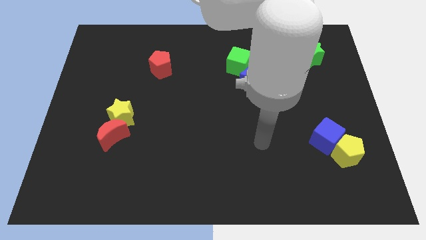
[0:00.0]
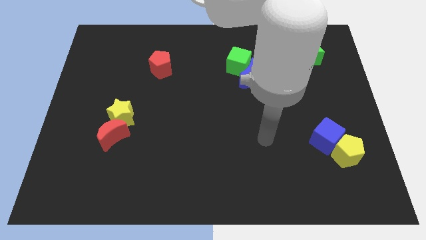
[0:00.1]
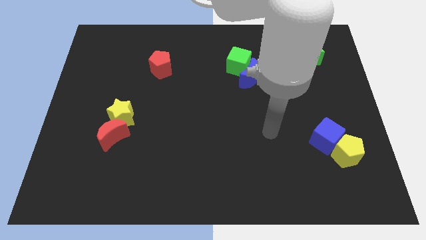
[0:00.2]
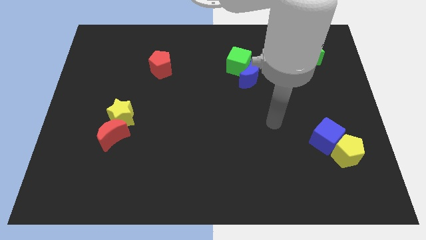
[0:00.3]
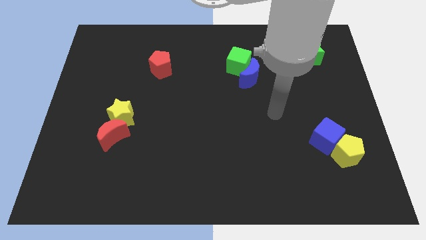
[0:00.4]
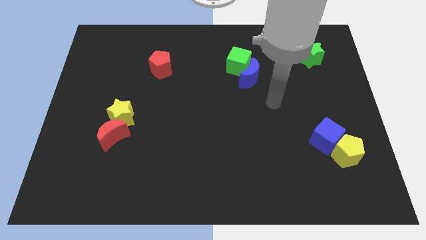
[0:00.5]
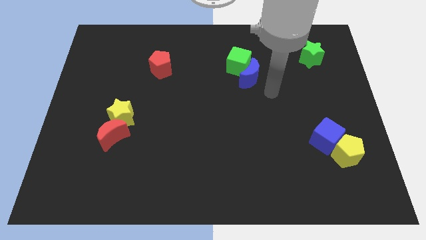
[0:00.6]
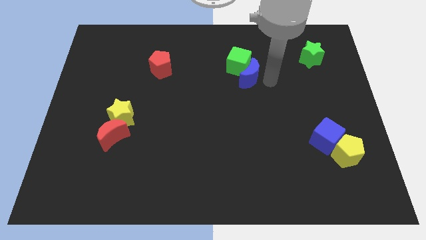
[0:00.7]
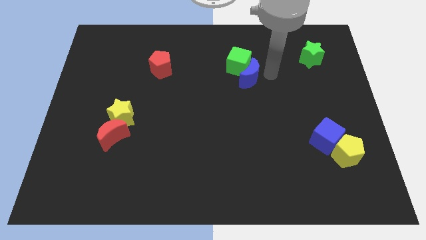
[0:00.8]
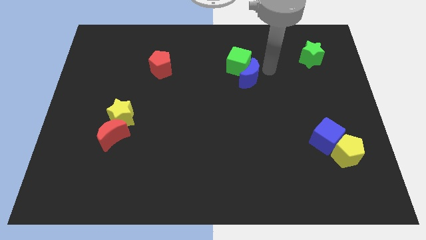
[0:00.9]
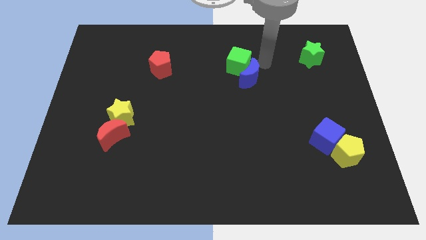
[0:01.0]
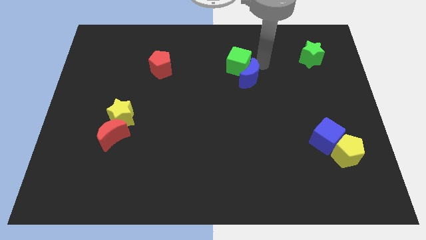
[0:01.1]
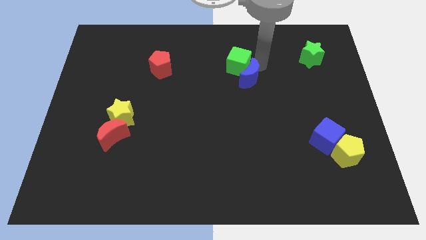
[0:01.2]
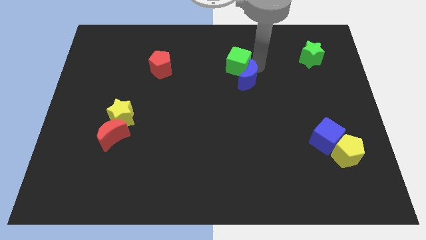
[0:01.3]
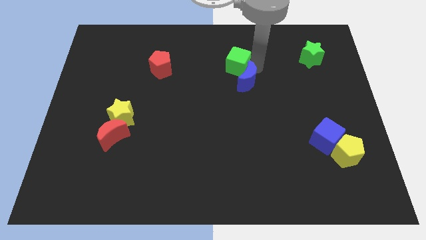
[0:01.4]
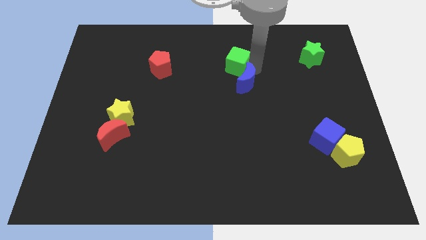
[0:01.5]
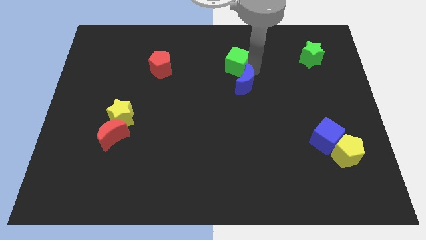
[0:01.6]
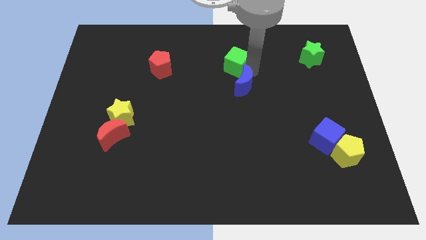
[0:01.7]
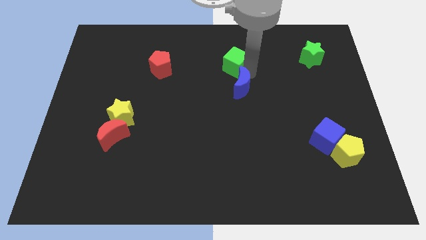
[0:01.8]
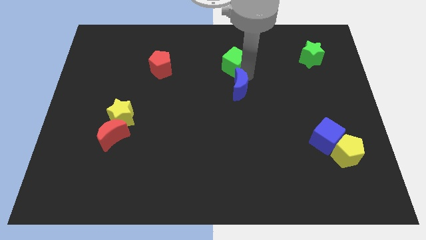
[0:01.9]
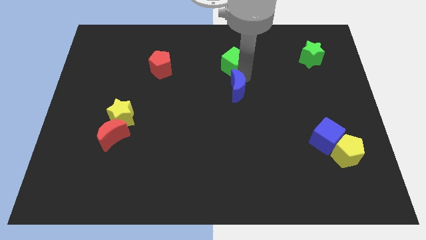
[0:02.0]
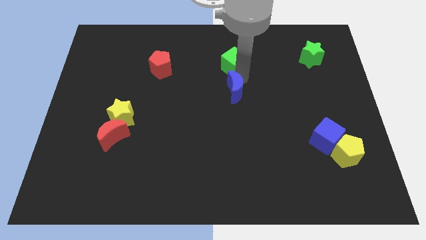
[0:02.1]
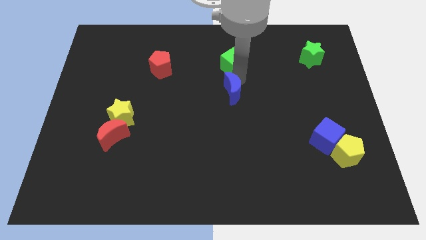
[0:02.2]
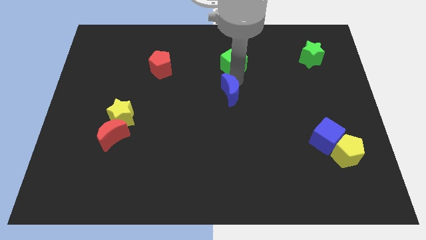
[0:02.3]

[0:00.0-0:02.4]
slightly slide the blue moon downwards and to the left

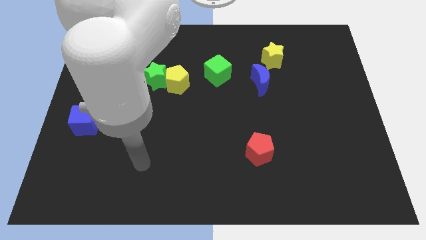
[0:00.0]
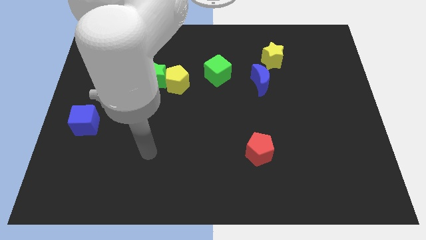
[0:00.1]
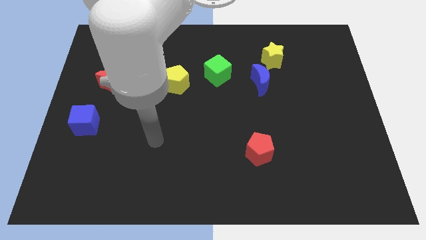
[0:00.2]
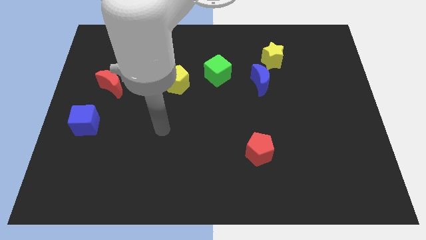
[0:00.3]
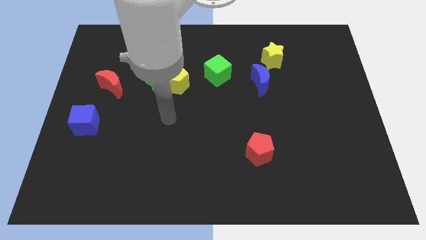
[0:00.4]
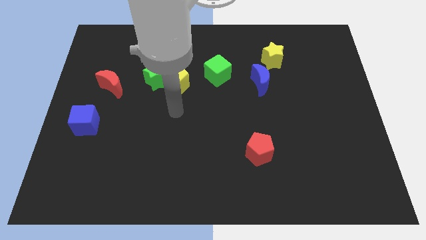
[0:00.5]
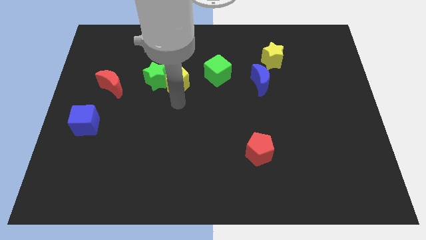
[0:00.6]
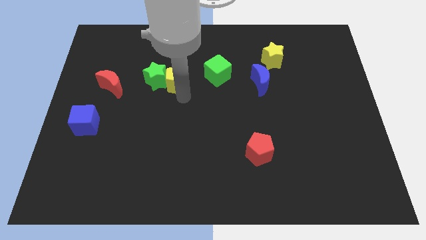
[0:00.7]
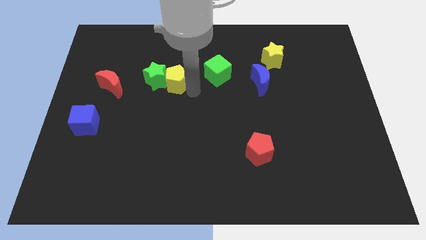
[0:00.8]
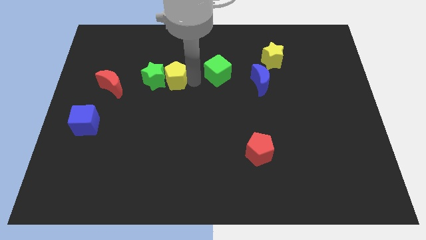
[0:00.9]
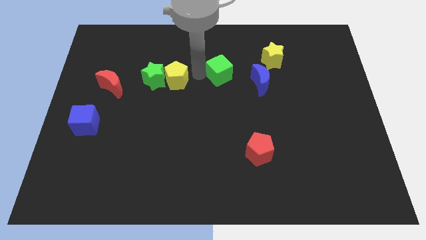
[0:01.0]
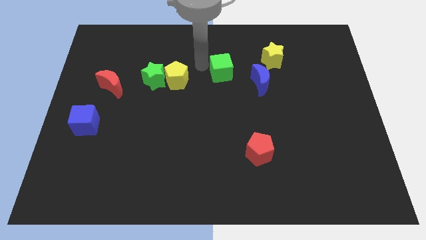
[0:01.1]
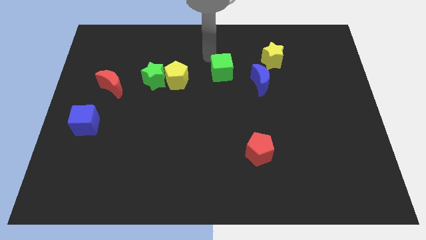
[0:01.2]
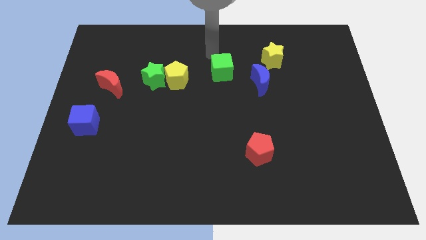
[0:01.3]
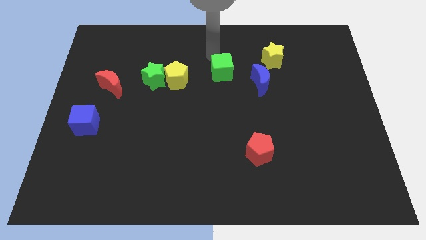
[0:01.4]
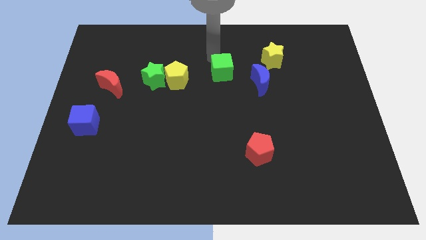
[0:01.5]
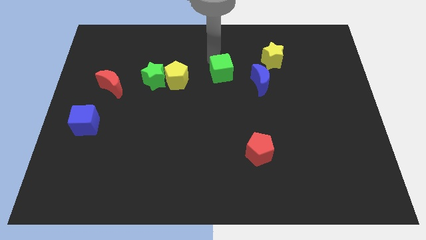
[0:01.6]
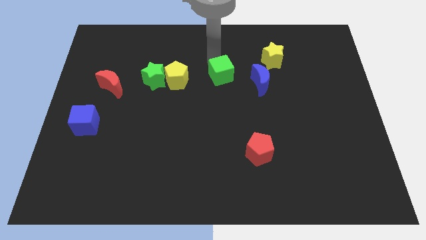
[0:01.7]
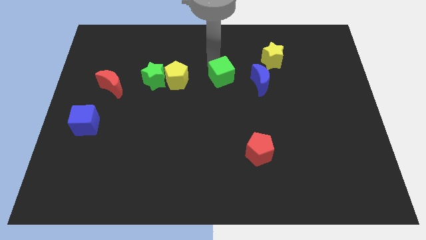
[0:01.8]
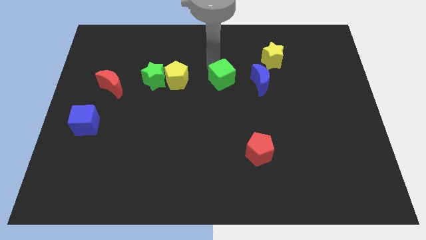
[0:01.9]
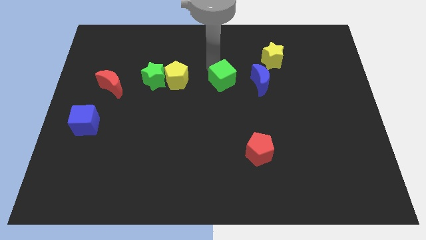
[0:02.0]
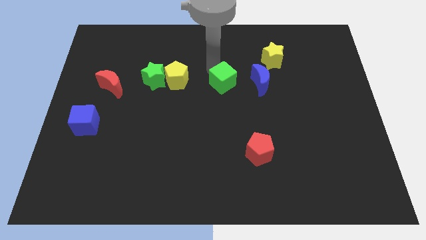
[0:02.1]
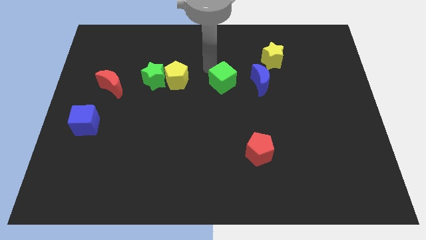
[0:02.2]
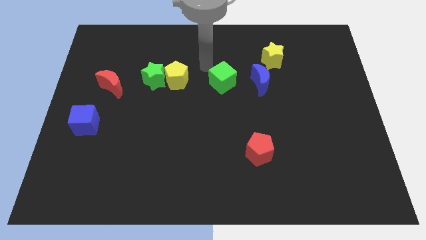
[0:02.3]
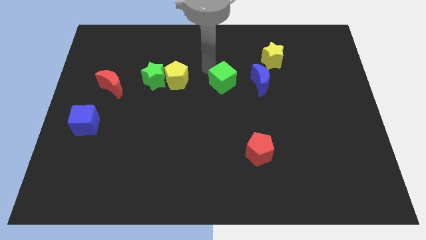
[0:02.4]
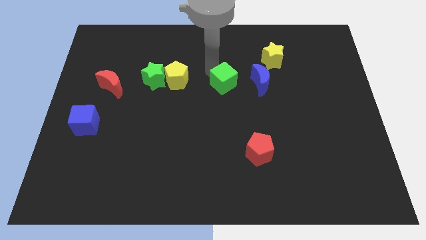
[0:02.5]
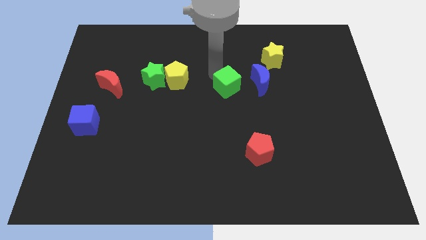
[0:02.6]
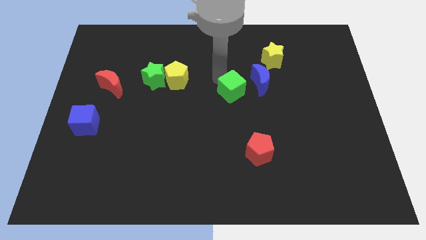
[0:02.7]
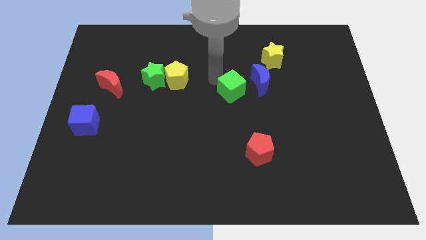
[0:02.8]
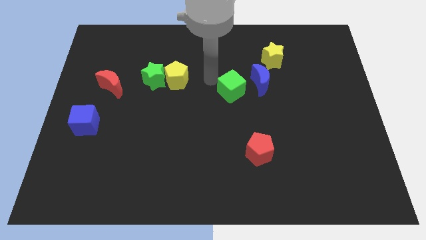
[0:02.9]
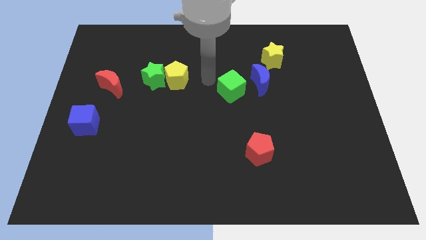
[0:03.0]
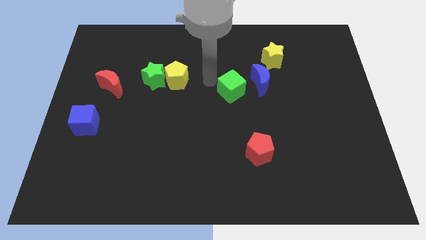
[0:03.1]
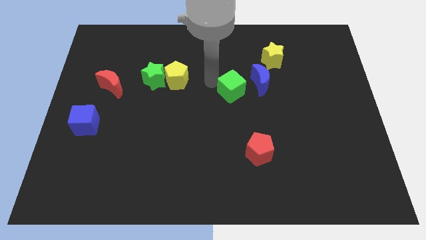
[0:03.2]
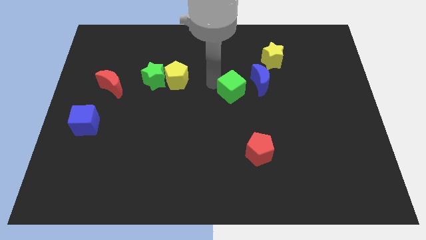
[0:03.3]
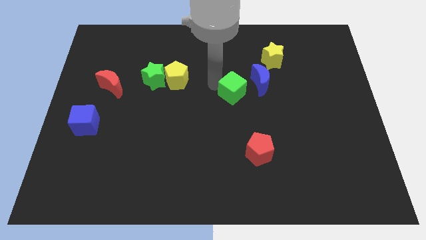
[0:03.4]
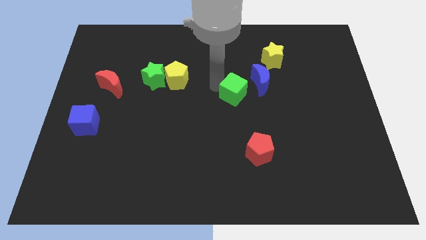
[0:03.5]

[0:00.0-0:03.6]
move the green cube down and to the right a little

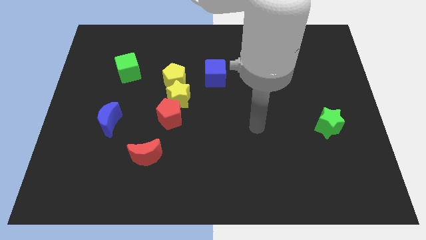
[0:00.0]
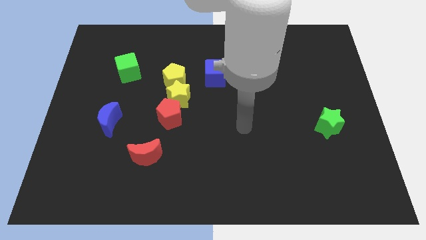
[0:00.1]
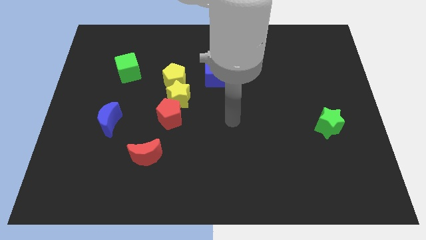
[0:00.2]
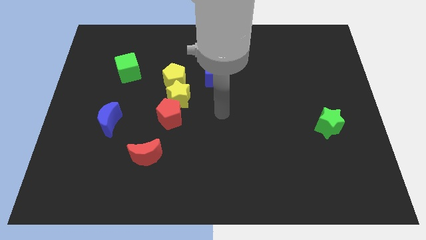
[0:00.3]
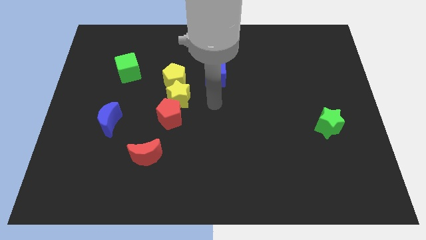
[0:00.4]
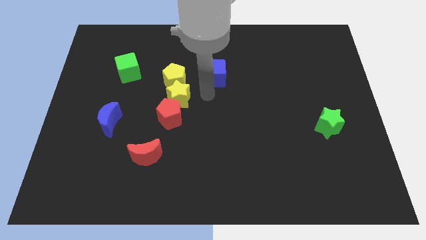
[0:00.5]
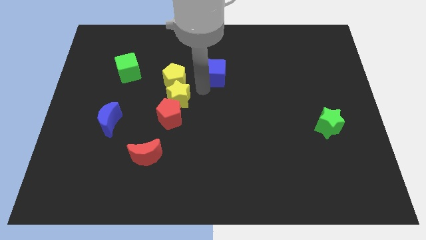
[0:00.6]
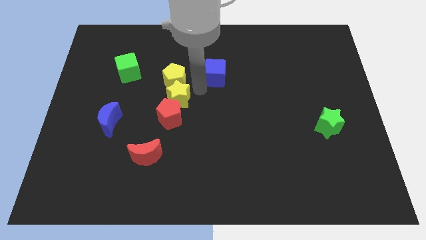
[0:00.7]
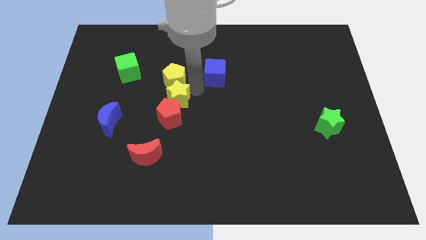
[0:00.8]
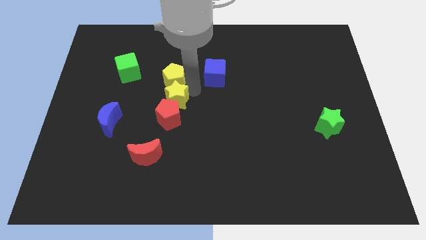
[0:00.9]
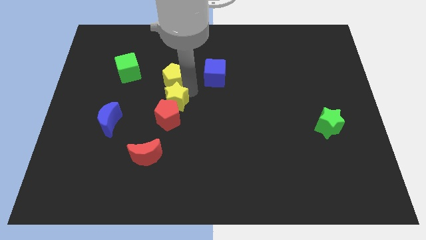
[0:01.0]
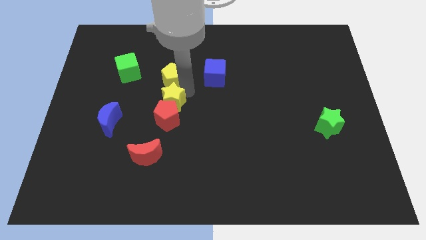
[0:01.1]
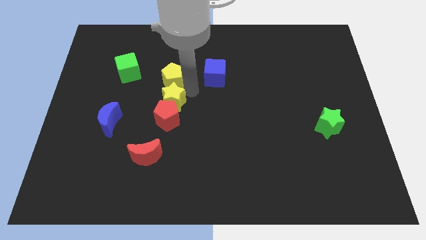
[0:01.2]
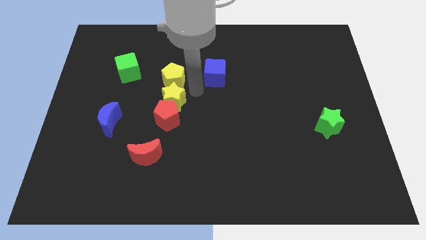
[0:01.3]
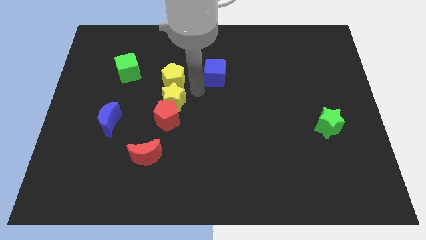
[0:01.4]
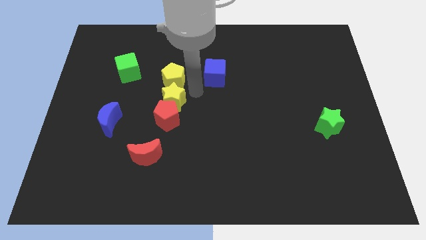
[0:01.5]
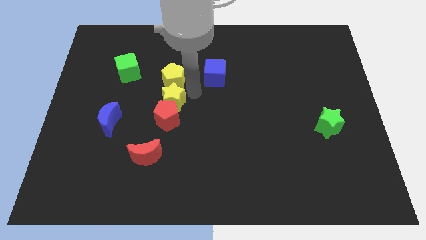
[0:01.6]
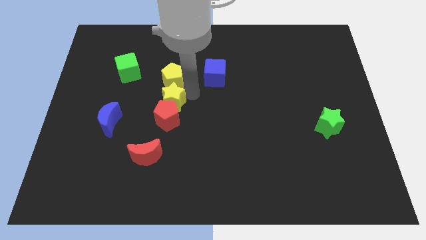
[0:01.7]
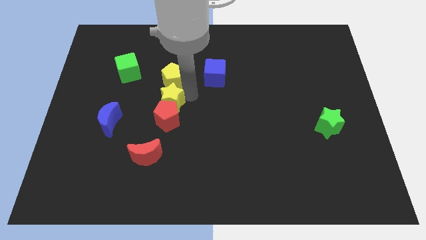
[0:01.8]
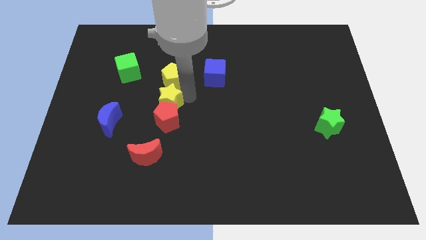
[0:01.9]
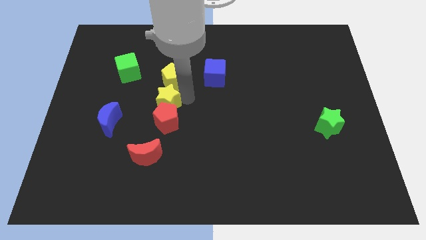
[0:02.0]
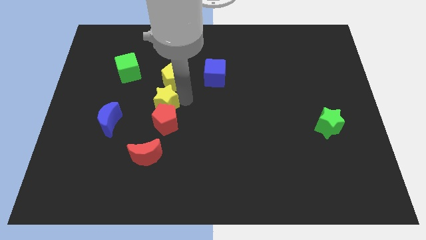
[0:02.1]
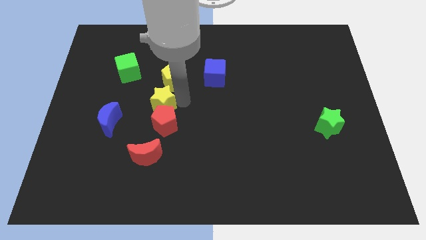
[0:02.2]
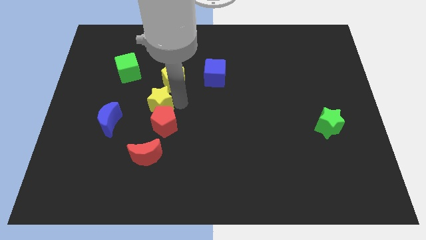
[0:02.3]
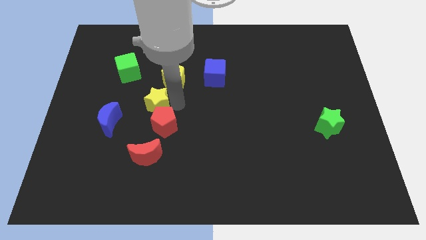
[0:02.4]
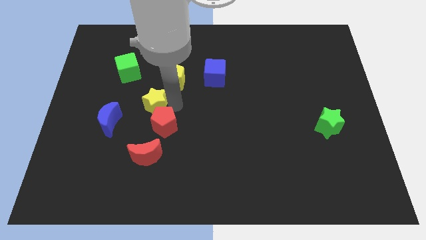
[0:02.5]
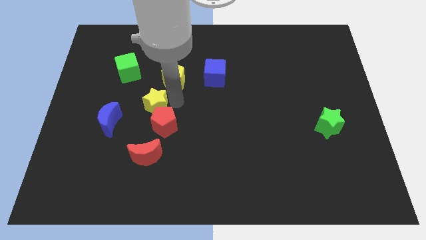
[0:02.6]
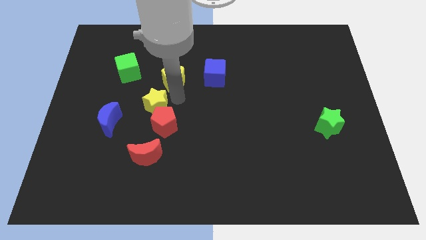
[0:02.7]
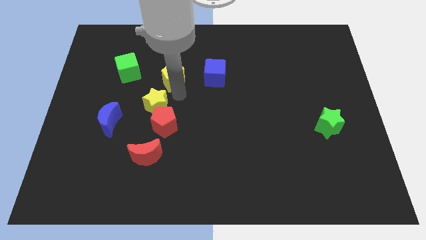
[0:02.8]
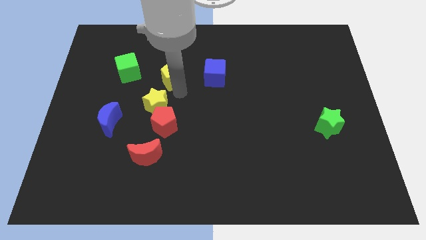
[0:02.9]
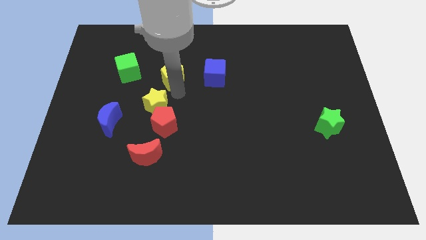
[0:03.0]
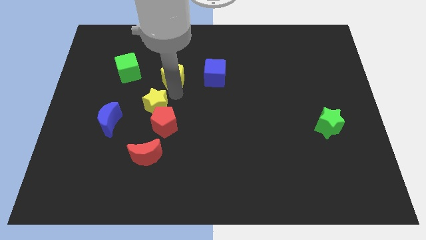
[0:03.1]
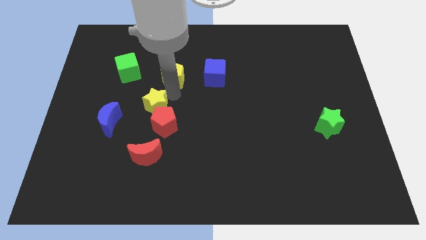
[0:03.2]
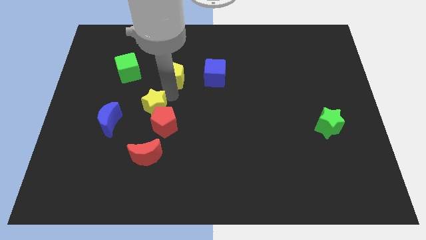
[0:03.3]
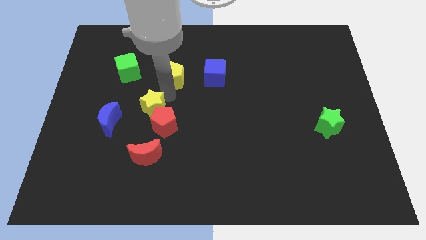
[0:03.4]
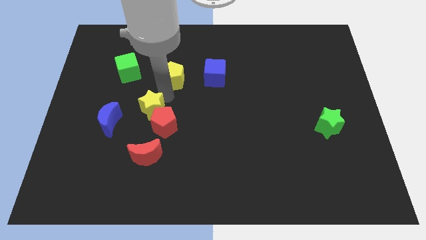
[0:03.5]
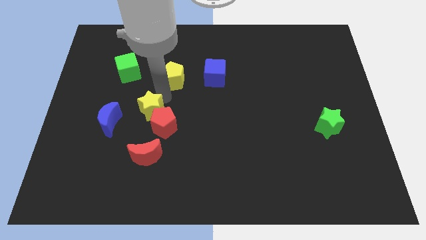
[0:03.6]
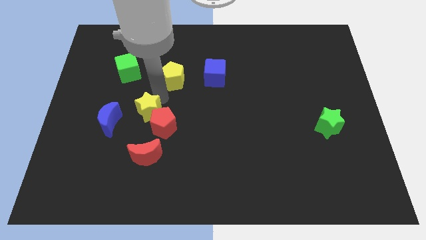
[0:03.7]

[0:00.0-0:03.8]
push the yellow star downwards and then left a little bit
